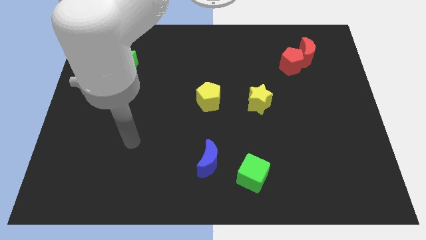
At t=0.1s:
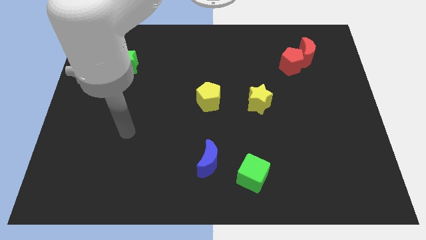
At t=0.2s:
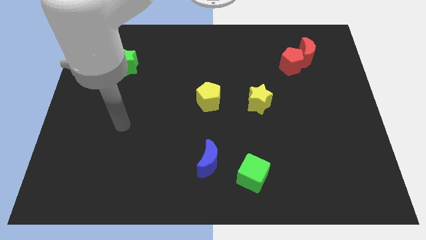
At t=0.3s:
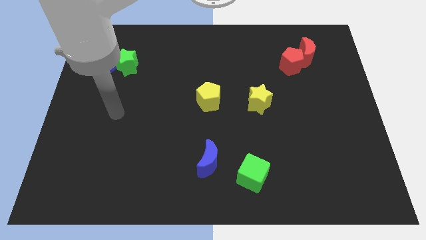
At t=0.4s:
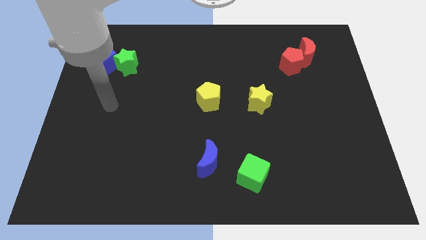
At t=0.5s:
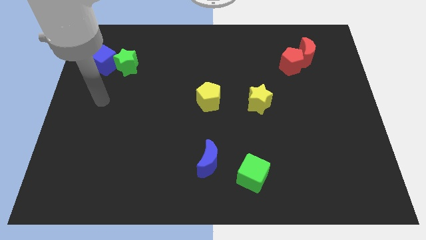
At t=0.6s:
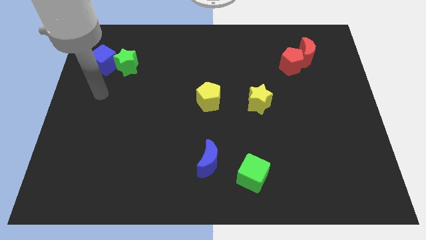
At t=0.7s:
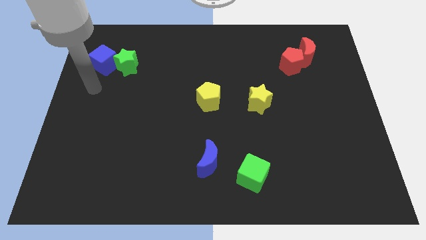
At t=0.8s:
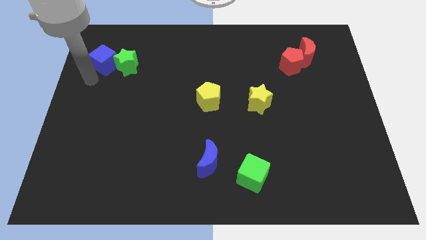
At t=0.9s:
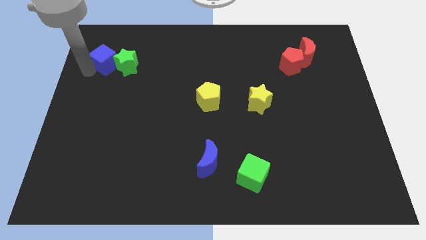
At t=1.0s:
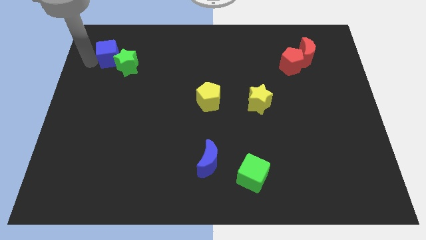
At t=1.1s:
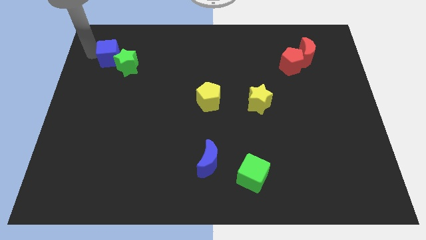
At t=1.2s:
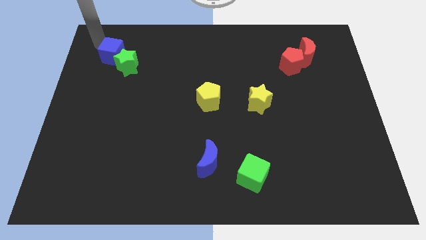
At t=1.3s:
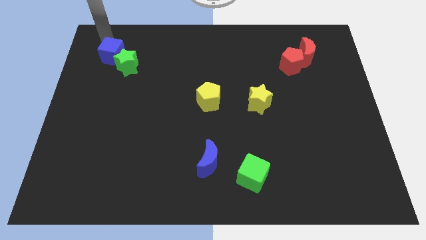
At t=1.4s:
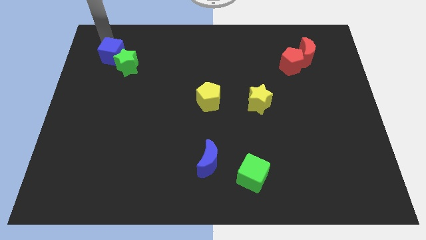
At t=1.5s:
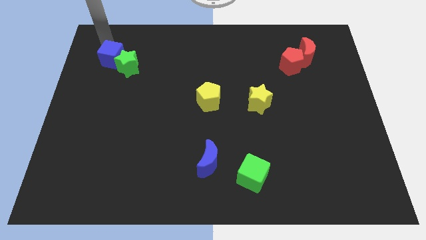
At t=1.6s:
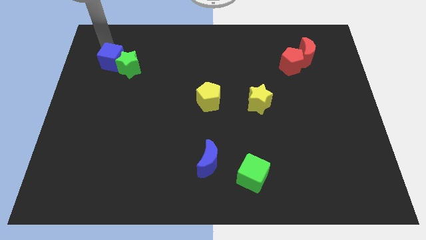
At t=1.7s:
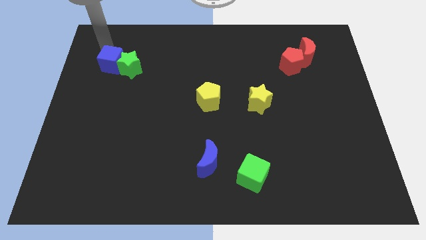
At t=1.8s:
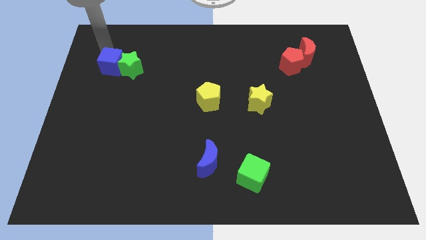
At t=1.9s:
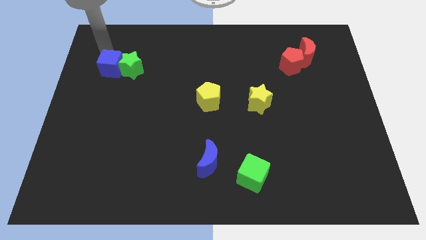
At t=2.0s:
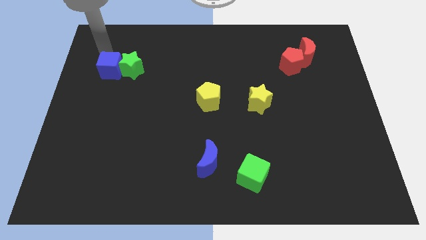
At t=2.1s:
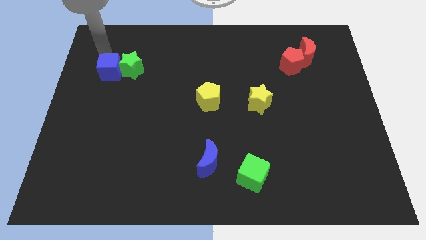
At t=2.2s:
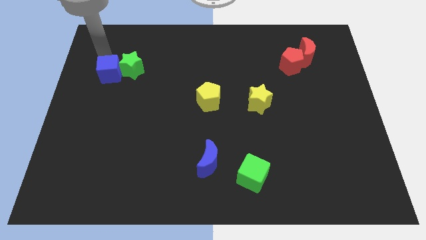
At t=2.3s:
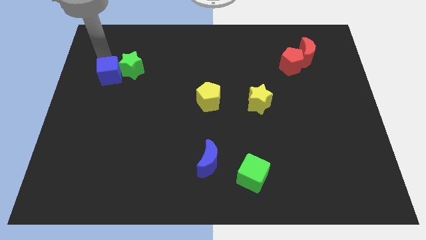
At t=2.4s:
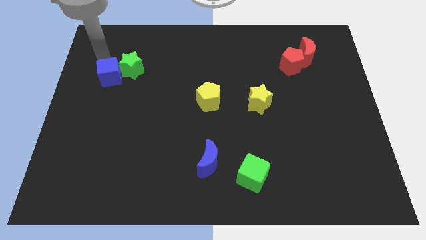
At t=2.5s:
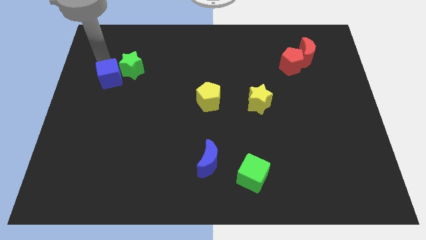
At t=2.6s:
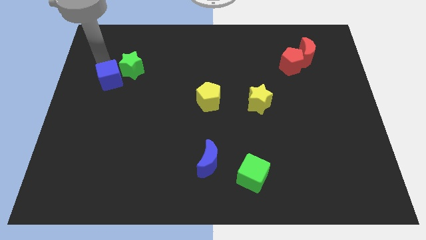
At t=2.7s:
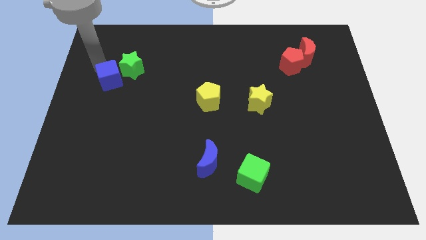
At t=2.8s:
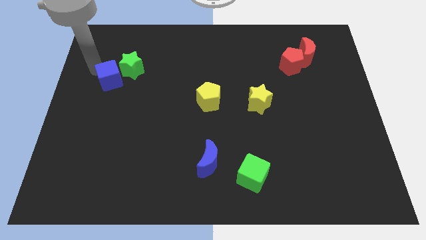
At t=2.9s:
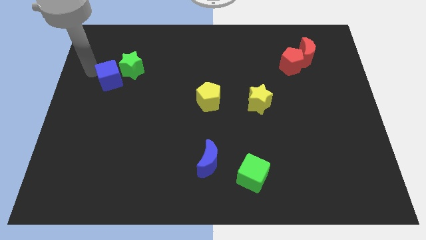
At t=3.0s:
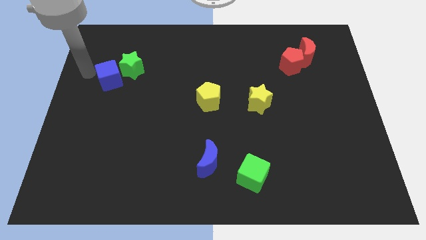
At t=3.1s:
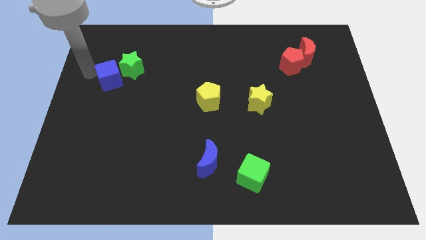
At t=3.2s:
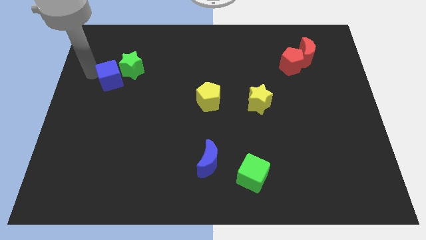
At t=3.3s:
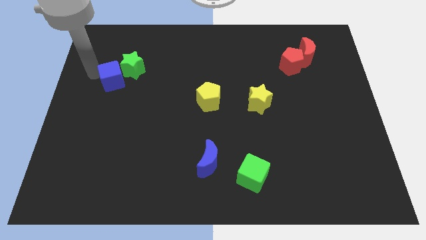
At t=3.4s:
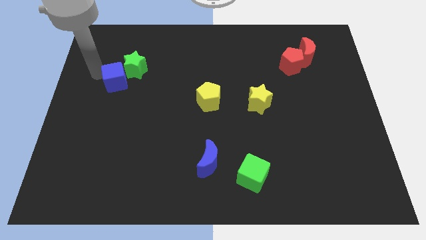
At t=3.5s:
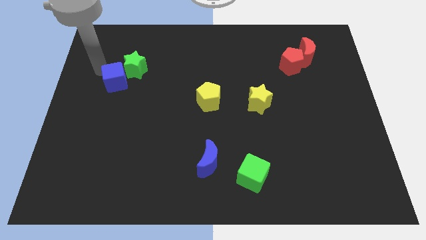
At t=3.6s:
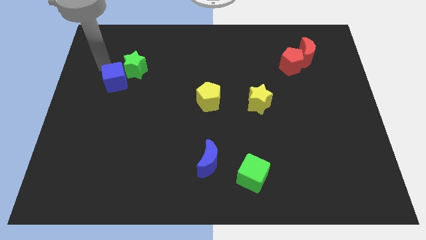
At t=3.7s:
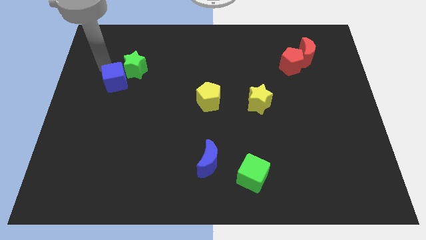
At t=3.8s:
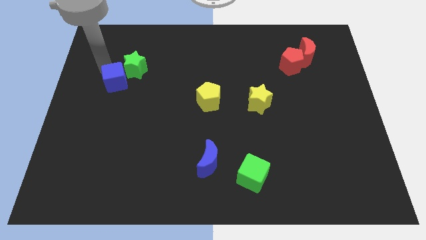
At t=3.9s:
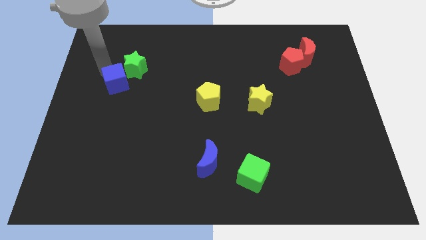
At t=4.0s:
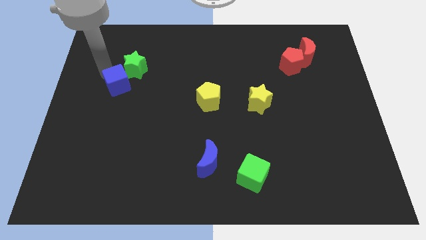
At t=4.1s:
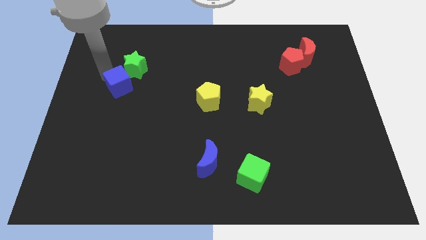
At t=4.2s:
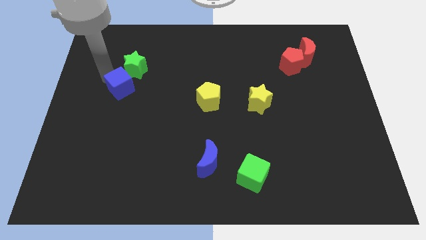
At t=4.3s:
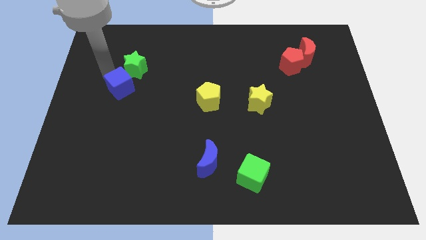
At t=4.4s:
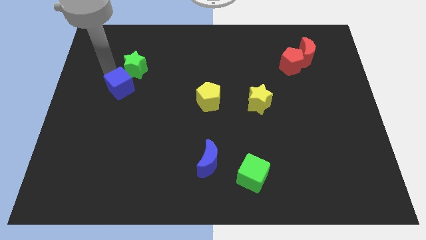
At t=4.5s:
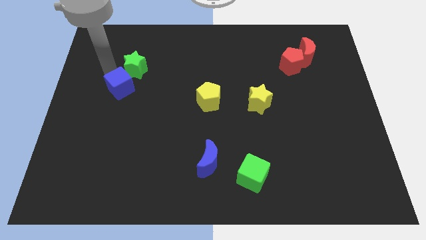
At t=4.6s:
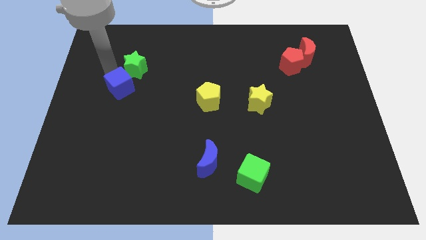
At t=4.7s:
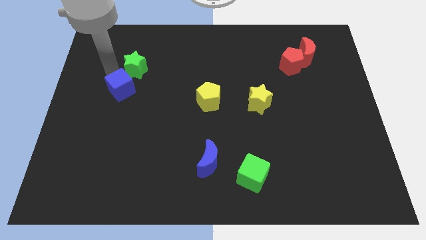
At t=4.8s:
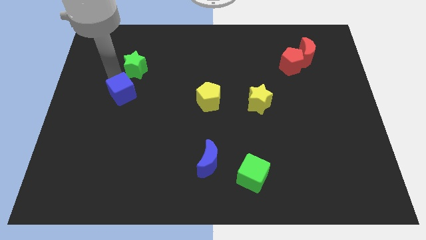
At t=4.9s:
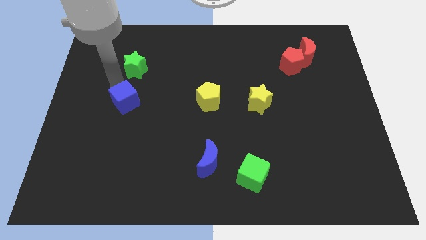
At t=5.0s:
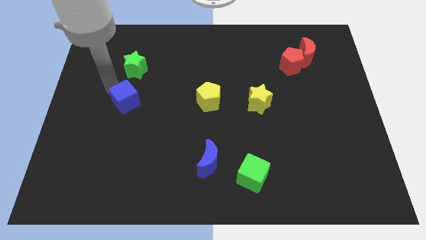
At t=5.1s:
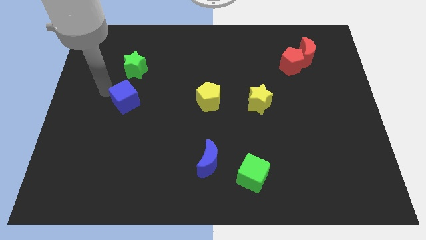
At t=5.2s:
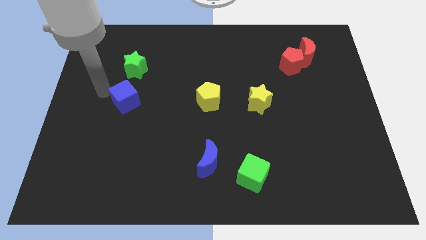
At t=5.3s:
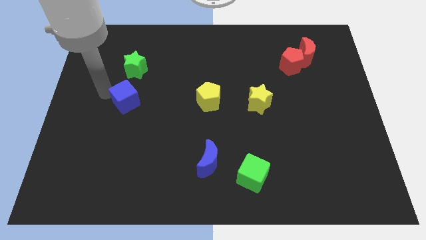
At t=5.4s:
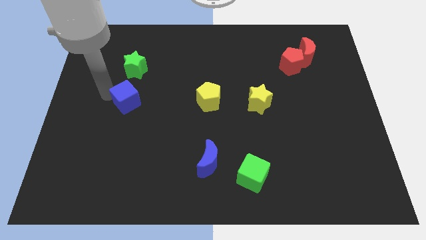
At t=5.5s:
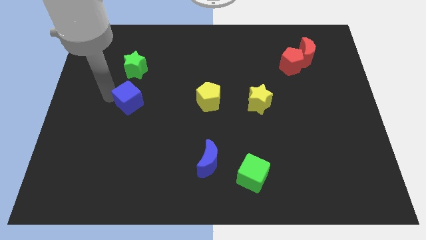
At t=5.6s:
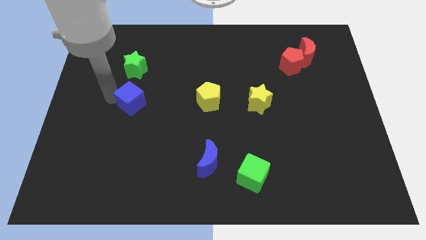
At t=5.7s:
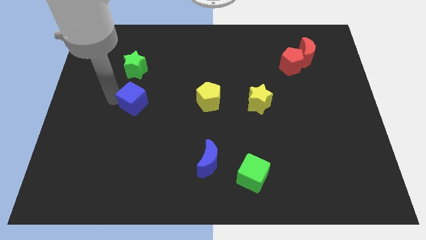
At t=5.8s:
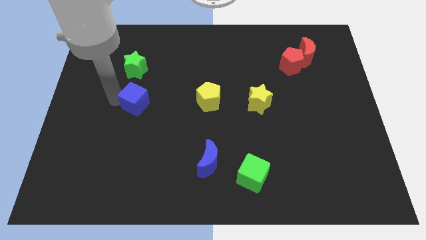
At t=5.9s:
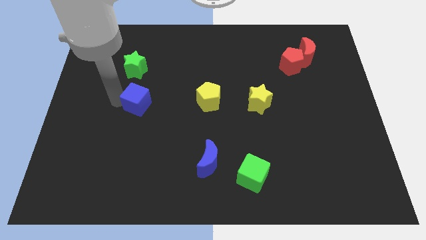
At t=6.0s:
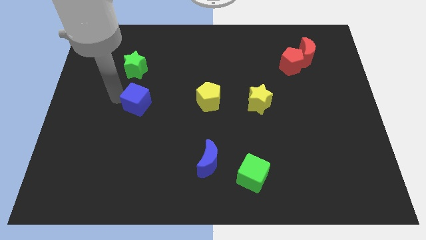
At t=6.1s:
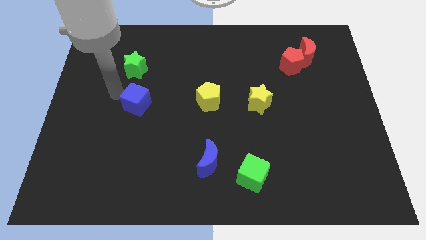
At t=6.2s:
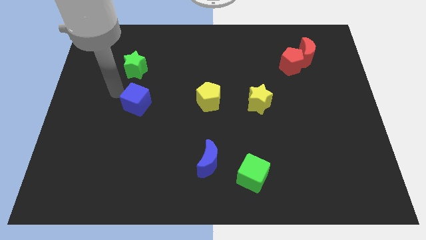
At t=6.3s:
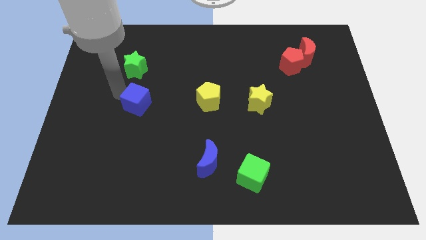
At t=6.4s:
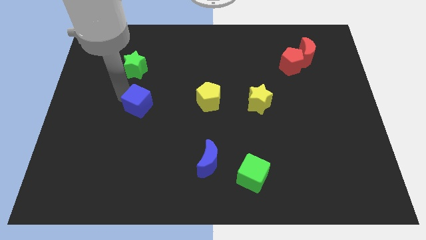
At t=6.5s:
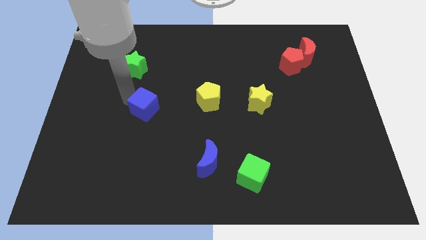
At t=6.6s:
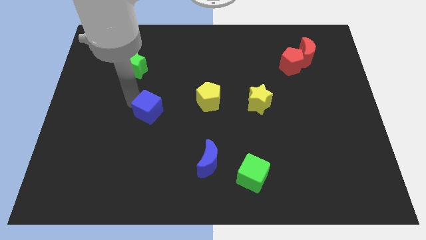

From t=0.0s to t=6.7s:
slide the blue cube downwards and right diagonally

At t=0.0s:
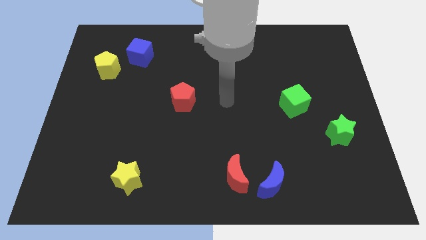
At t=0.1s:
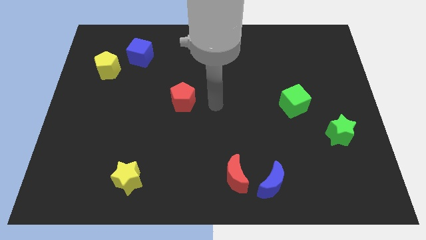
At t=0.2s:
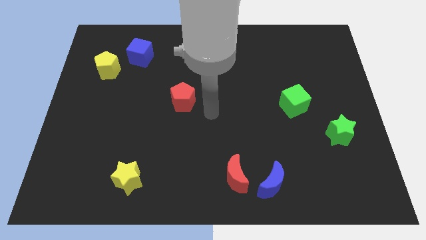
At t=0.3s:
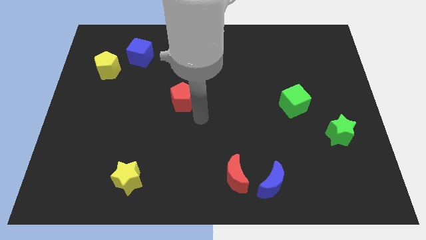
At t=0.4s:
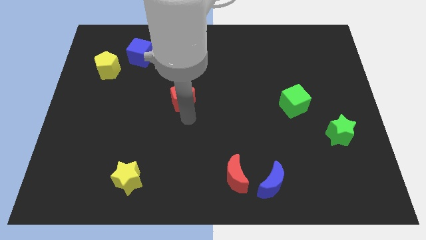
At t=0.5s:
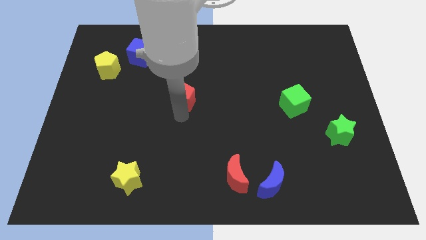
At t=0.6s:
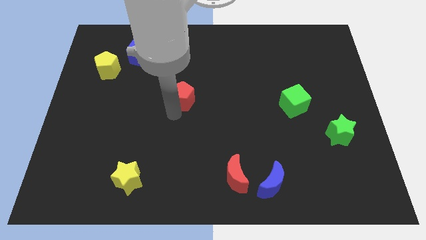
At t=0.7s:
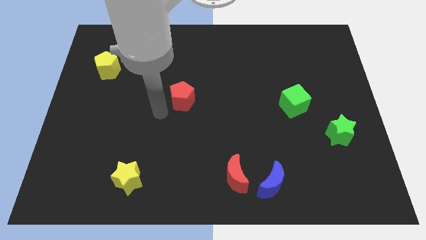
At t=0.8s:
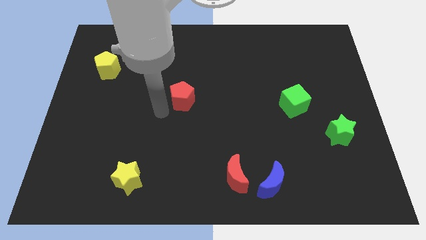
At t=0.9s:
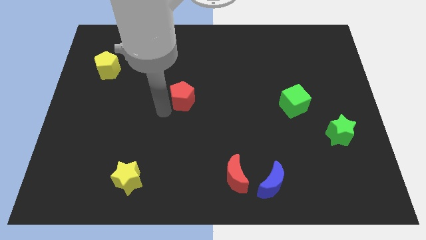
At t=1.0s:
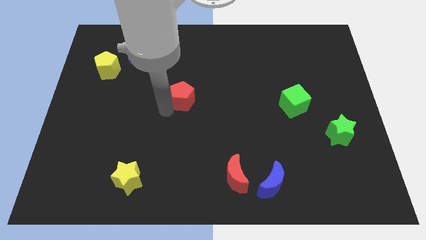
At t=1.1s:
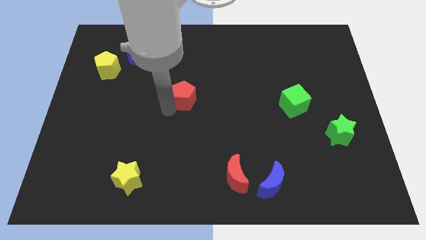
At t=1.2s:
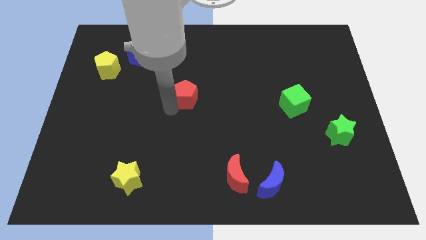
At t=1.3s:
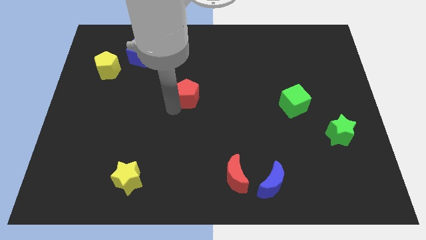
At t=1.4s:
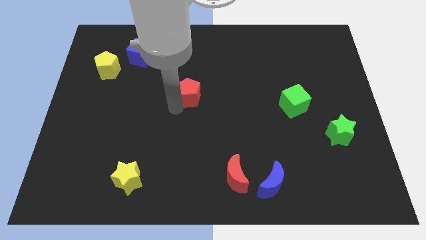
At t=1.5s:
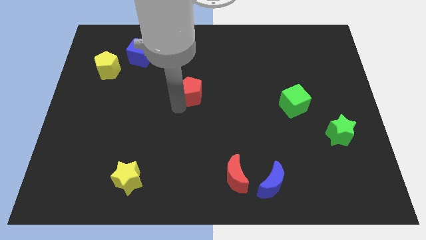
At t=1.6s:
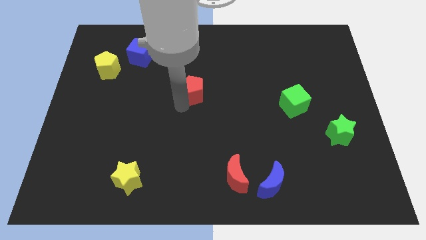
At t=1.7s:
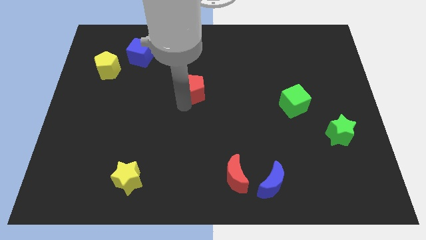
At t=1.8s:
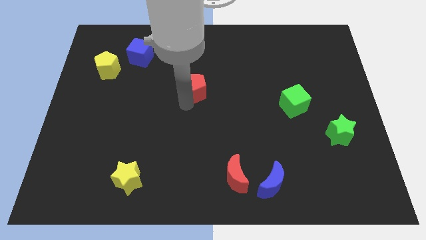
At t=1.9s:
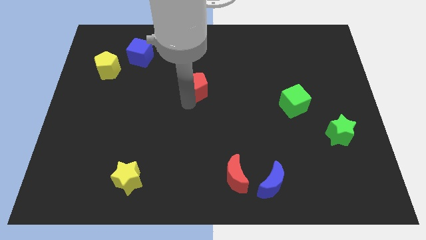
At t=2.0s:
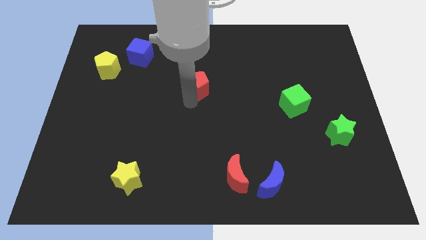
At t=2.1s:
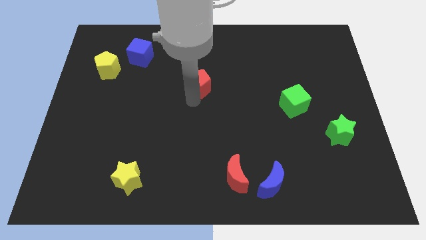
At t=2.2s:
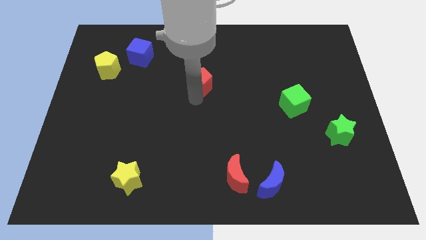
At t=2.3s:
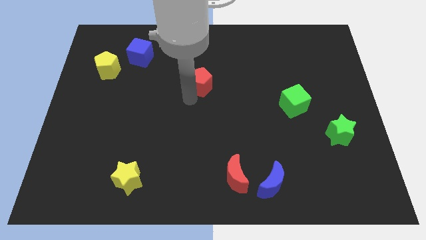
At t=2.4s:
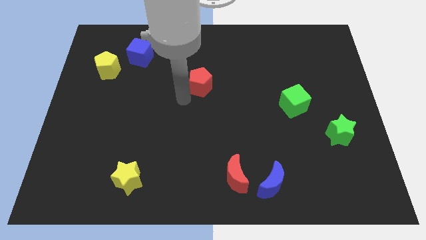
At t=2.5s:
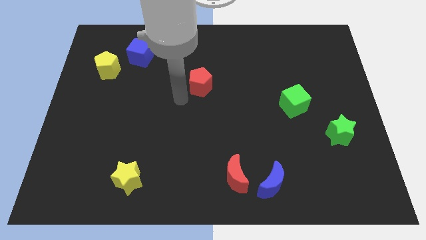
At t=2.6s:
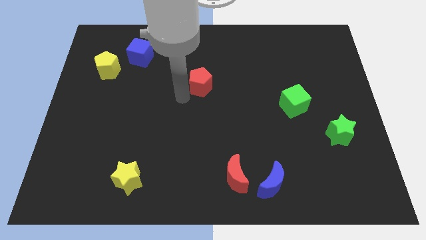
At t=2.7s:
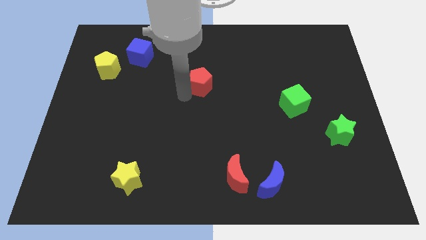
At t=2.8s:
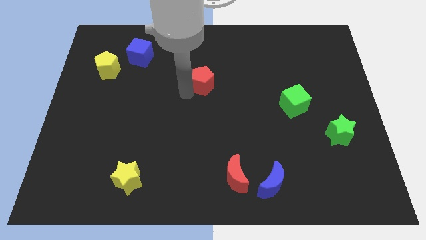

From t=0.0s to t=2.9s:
slightly push the red pentagon up and to the right
